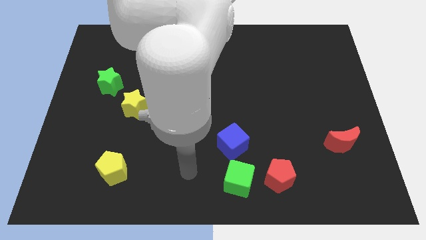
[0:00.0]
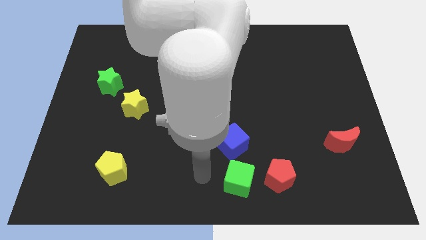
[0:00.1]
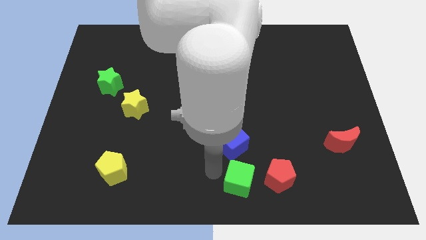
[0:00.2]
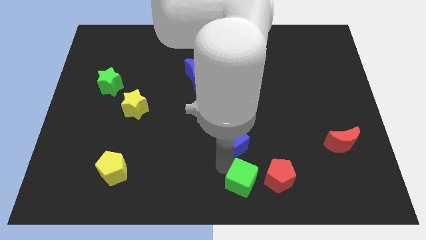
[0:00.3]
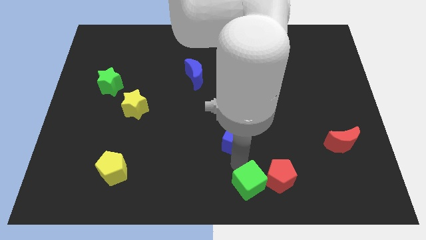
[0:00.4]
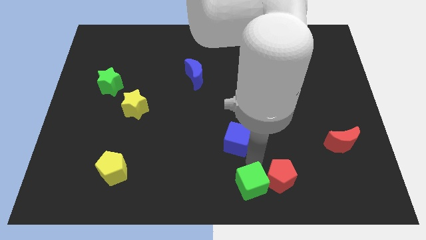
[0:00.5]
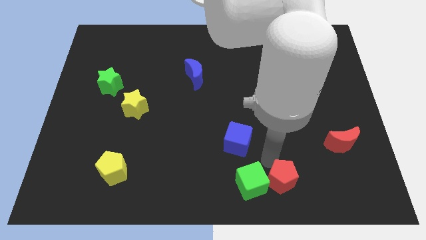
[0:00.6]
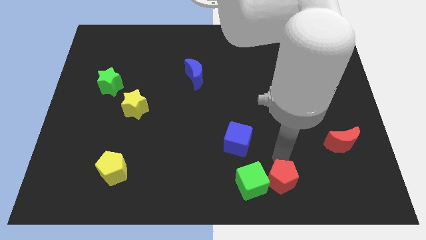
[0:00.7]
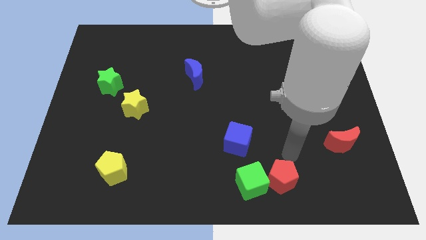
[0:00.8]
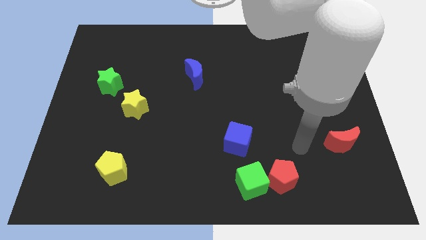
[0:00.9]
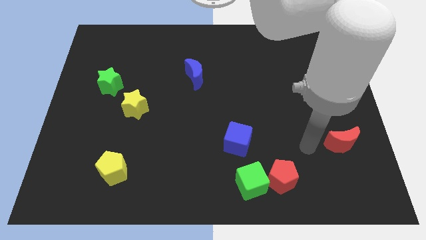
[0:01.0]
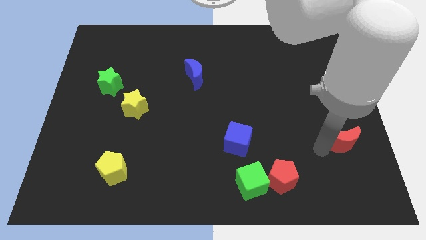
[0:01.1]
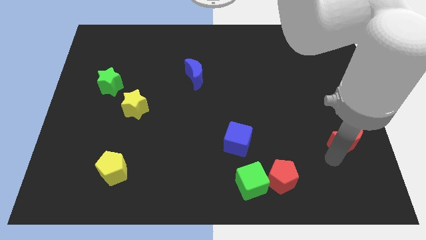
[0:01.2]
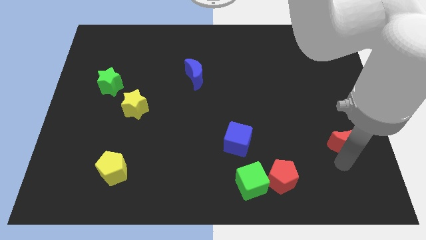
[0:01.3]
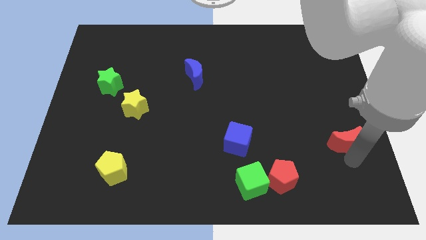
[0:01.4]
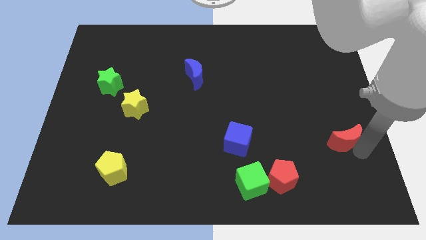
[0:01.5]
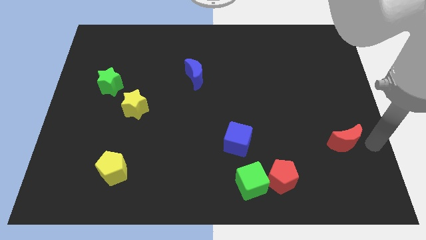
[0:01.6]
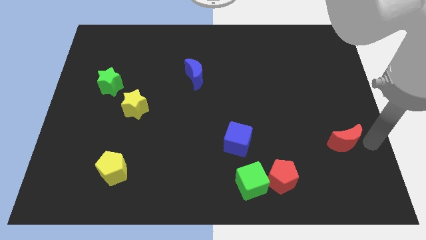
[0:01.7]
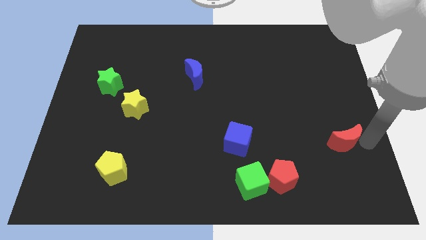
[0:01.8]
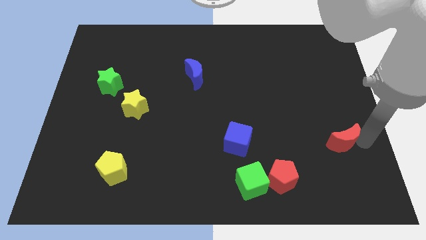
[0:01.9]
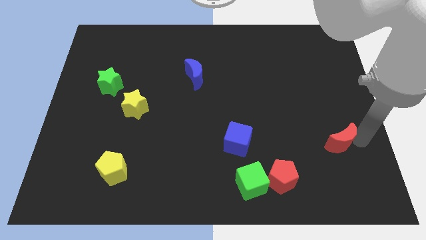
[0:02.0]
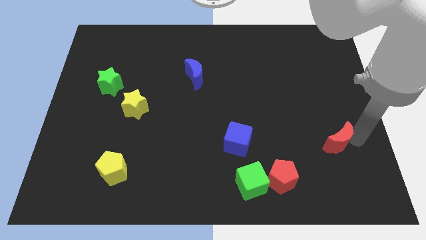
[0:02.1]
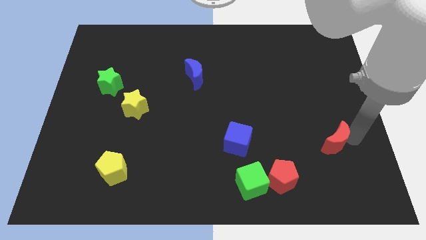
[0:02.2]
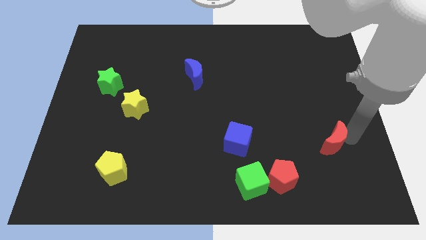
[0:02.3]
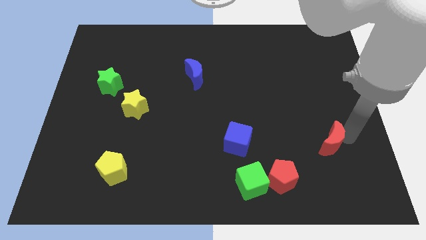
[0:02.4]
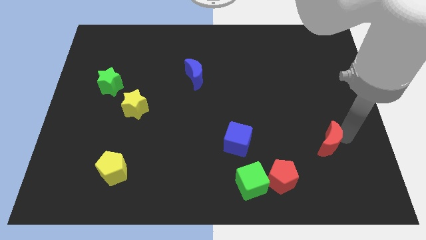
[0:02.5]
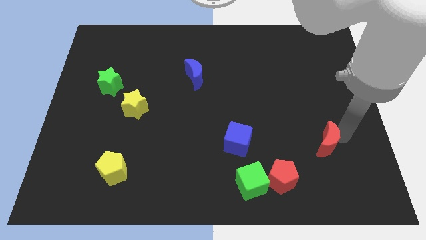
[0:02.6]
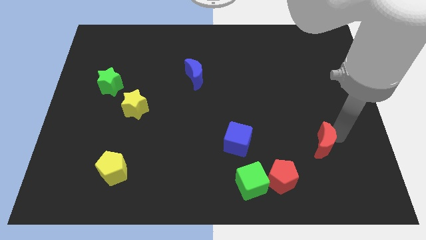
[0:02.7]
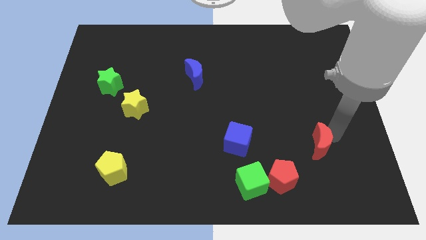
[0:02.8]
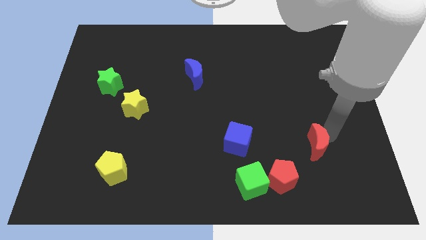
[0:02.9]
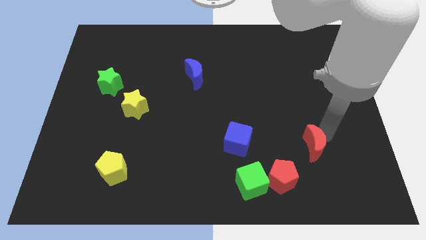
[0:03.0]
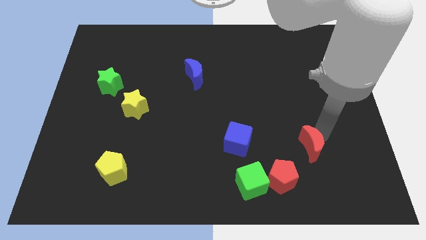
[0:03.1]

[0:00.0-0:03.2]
slide the red moon a bit left

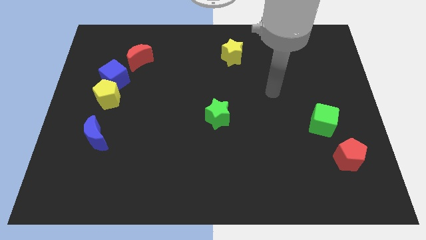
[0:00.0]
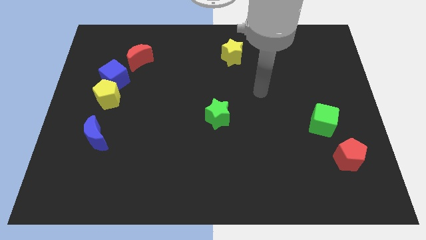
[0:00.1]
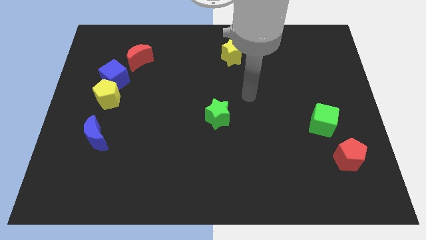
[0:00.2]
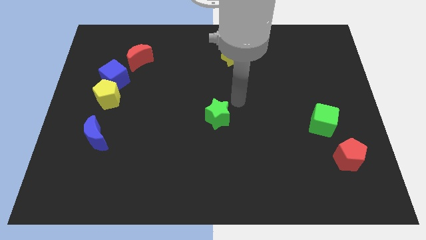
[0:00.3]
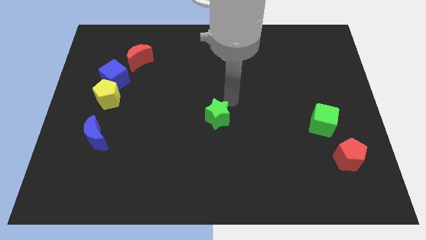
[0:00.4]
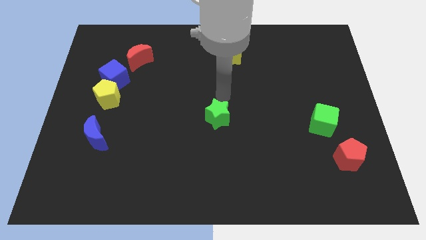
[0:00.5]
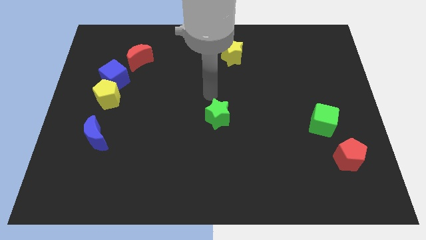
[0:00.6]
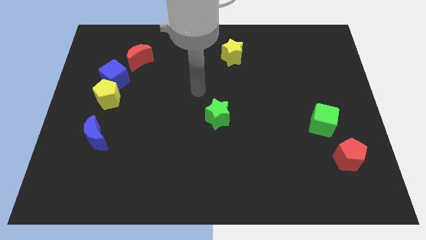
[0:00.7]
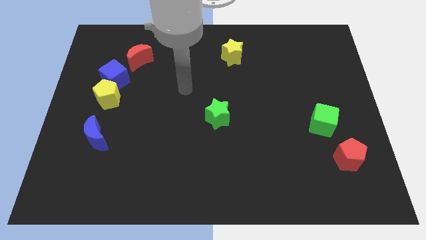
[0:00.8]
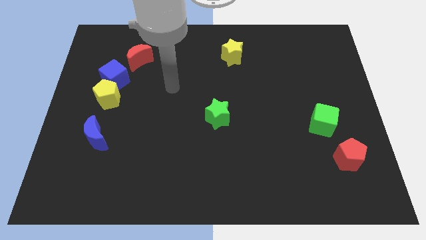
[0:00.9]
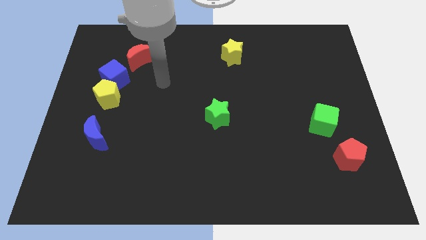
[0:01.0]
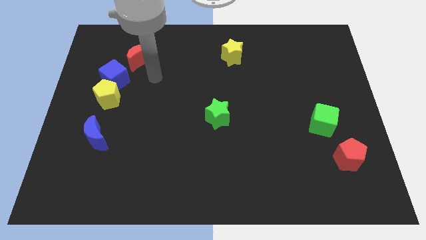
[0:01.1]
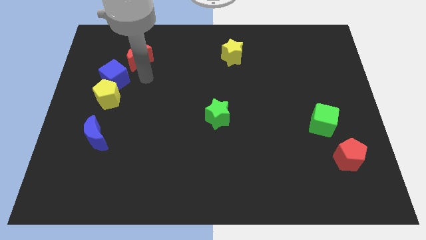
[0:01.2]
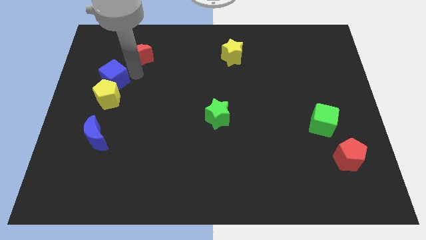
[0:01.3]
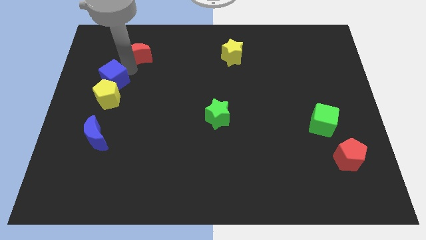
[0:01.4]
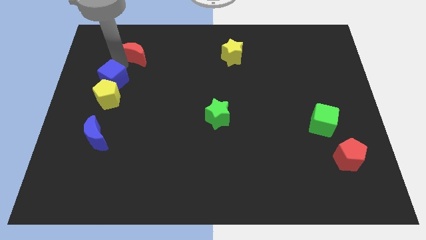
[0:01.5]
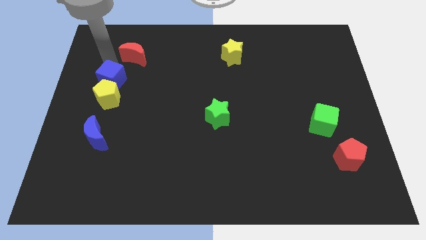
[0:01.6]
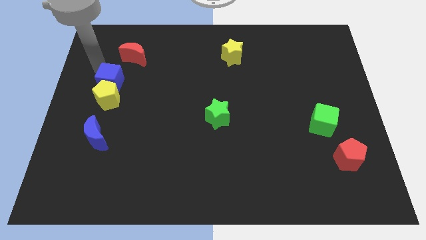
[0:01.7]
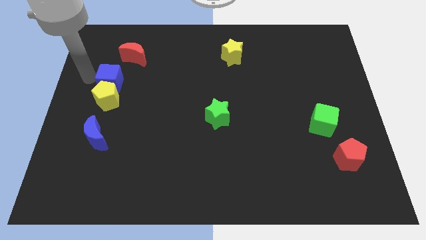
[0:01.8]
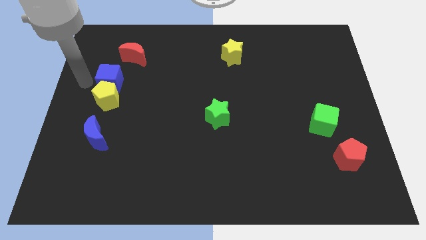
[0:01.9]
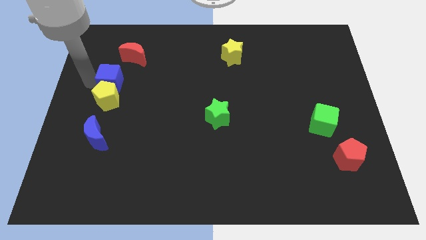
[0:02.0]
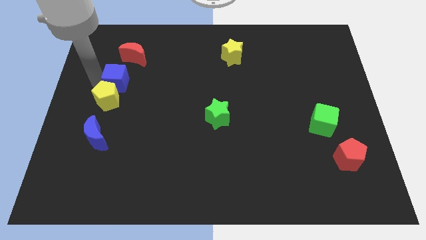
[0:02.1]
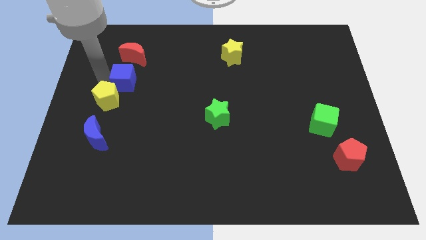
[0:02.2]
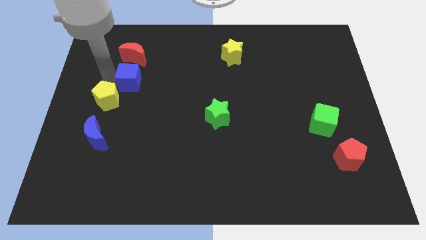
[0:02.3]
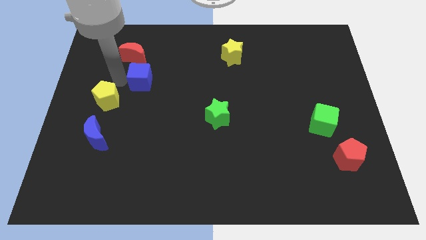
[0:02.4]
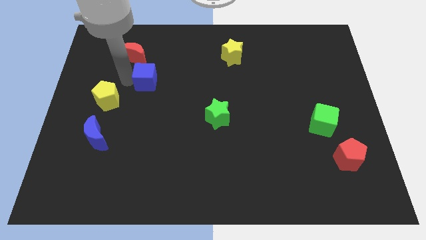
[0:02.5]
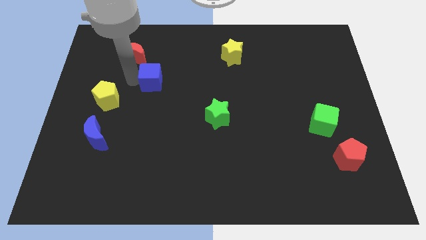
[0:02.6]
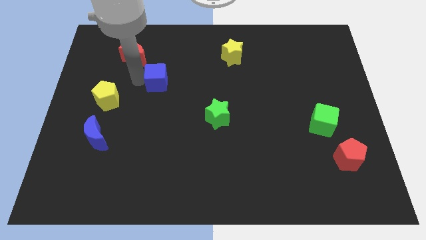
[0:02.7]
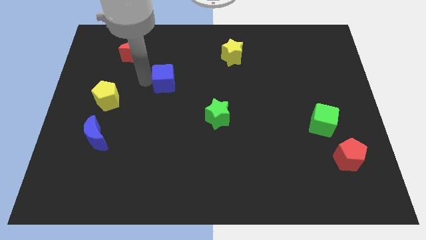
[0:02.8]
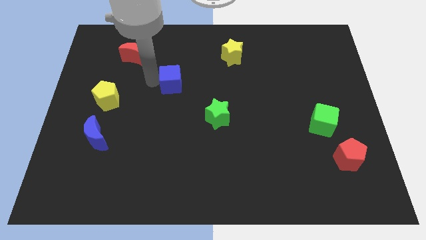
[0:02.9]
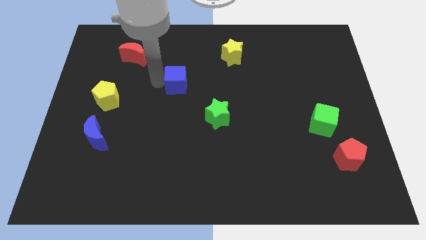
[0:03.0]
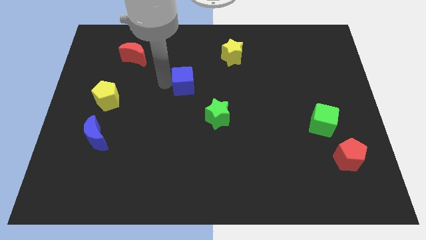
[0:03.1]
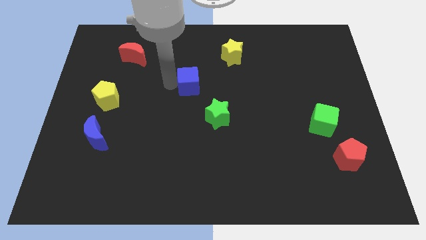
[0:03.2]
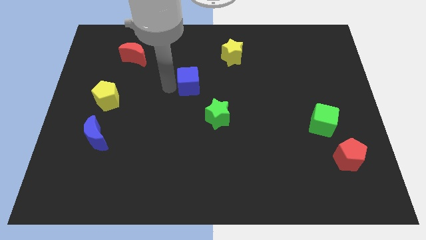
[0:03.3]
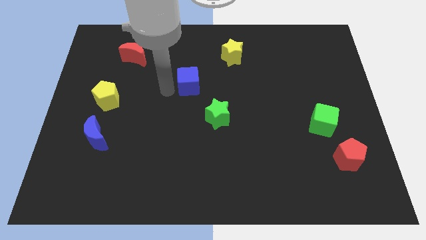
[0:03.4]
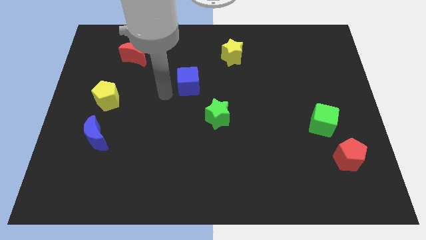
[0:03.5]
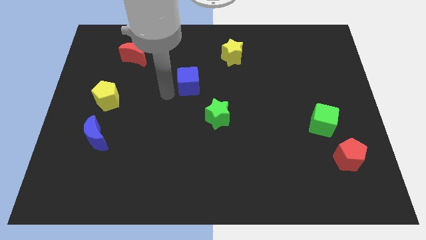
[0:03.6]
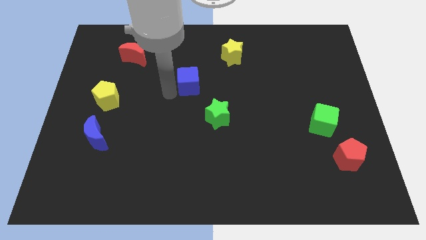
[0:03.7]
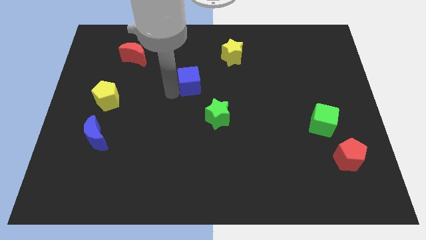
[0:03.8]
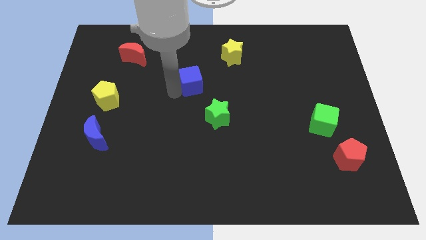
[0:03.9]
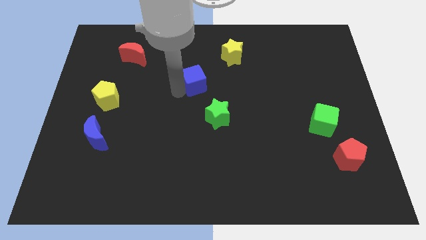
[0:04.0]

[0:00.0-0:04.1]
slide the blue cube to the right

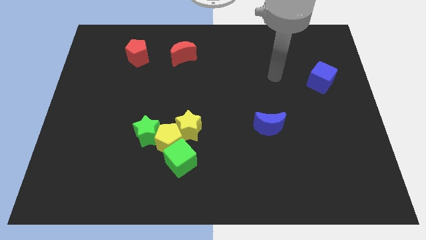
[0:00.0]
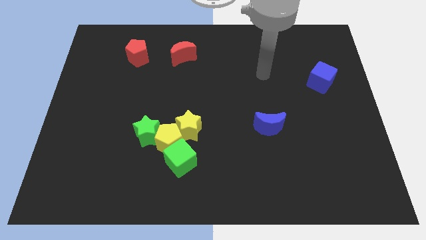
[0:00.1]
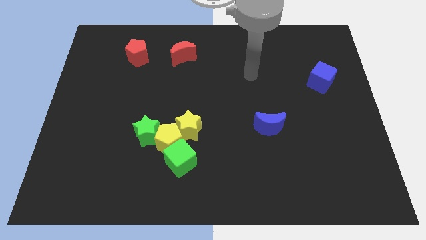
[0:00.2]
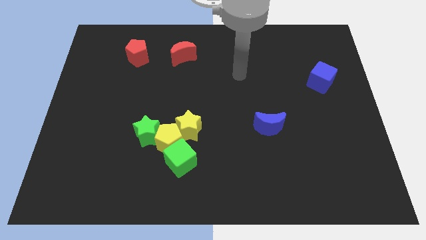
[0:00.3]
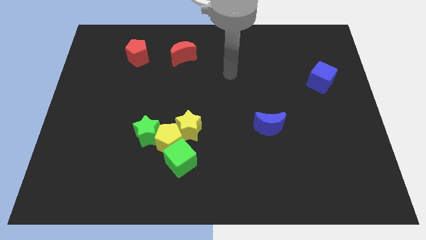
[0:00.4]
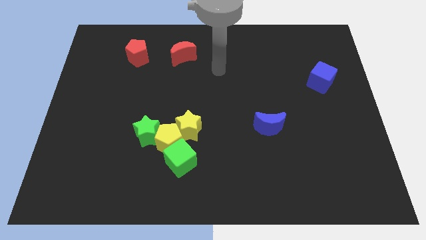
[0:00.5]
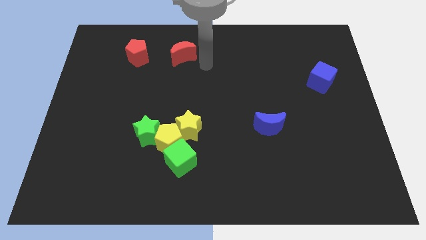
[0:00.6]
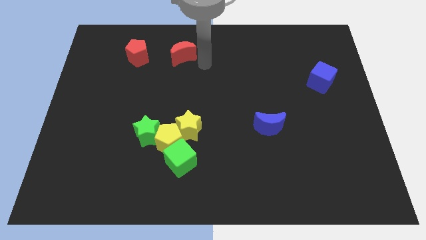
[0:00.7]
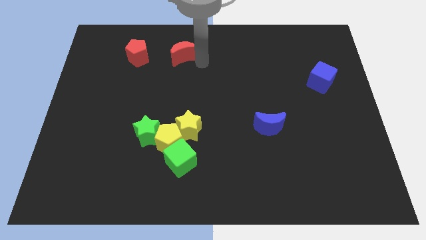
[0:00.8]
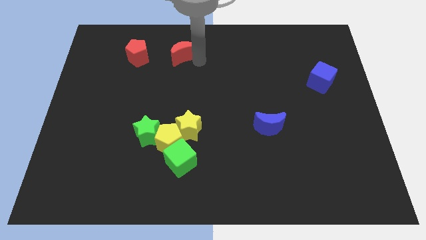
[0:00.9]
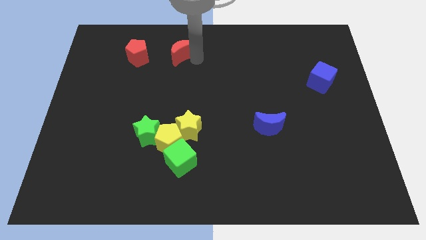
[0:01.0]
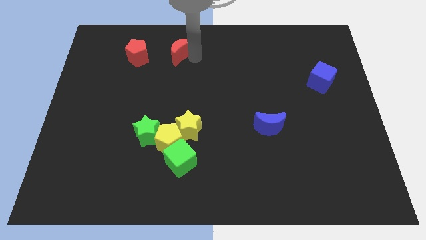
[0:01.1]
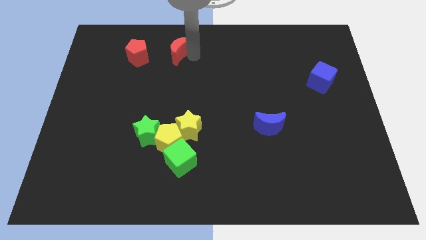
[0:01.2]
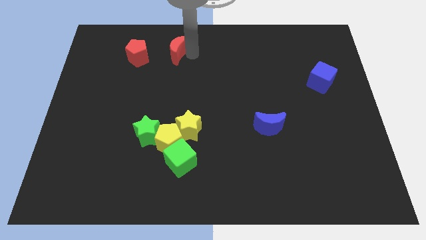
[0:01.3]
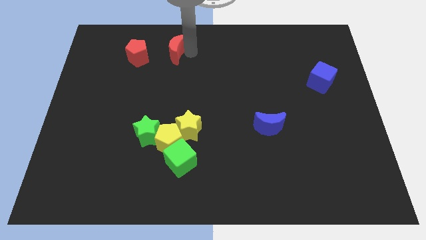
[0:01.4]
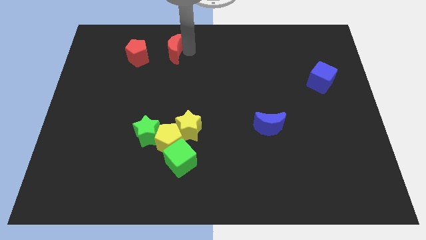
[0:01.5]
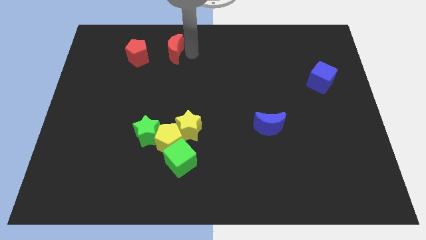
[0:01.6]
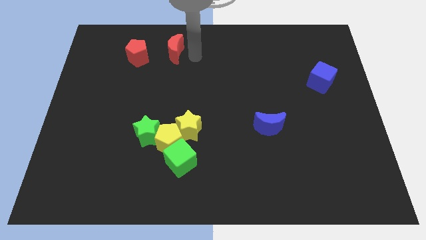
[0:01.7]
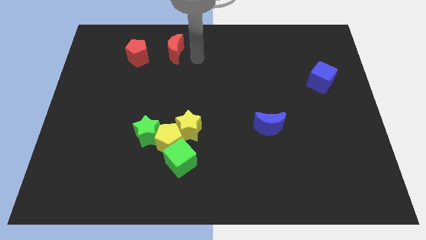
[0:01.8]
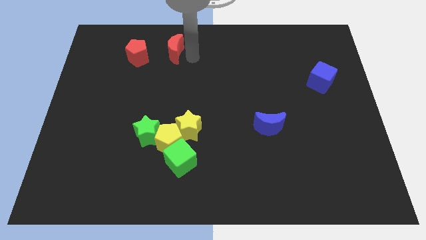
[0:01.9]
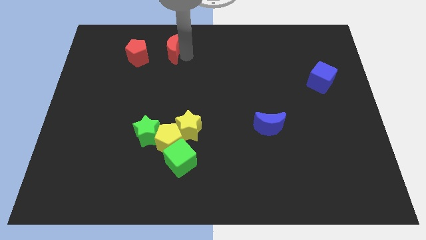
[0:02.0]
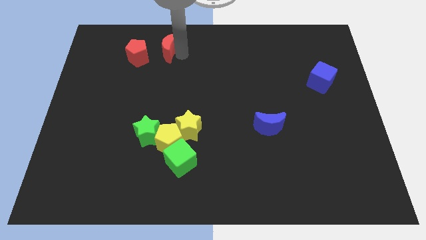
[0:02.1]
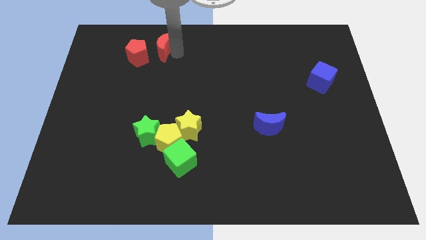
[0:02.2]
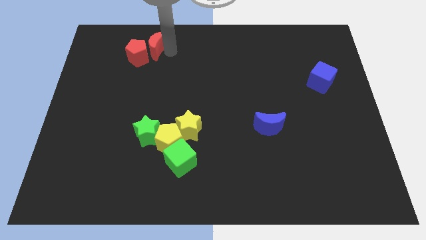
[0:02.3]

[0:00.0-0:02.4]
slightly push the red moon to the left
